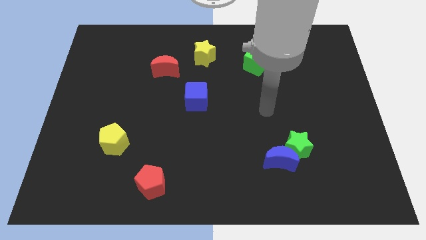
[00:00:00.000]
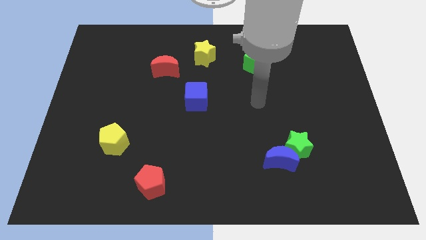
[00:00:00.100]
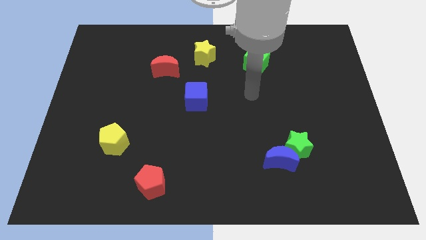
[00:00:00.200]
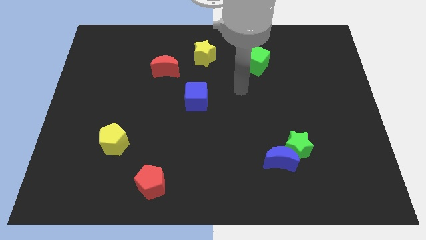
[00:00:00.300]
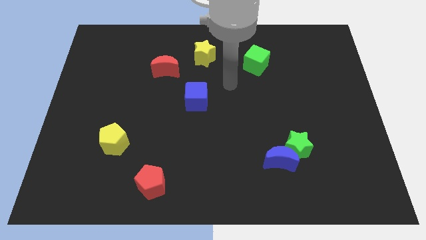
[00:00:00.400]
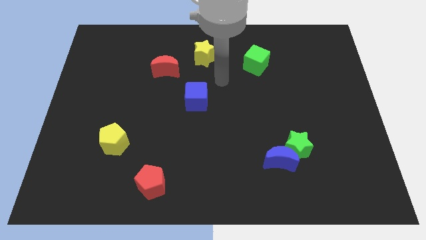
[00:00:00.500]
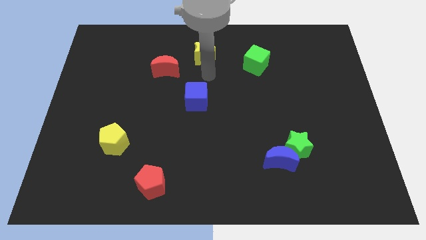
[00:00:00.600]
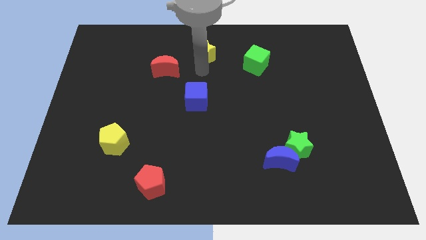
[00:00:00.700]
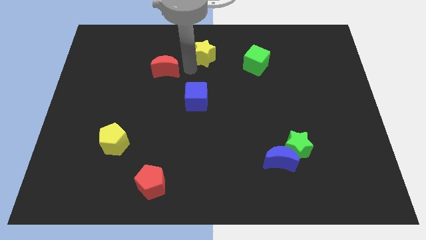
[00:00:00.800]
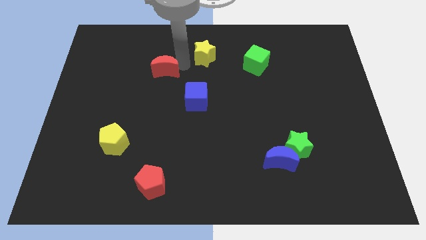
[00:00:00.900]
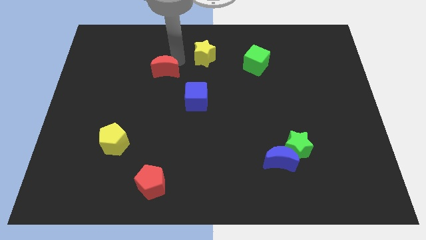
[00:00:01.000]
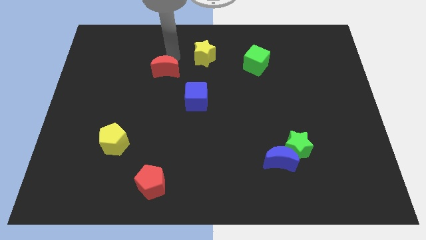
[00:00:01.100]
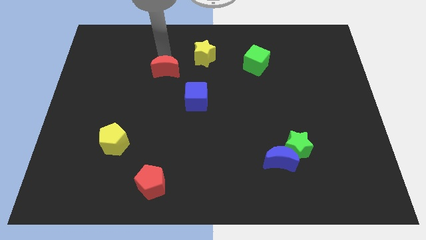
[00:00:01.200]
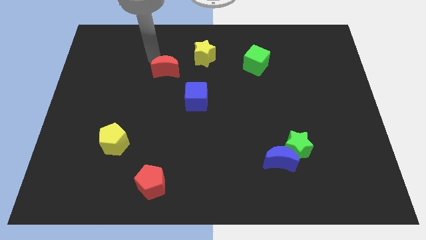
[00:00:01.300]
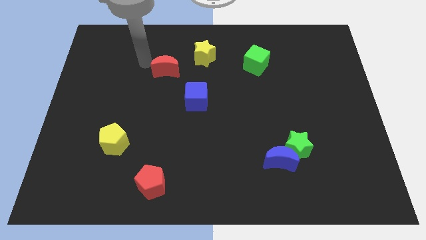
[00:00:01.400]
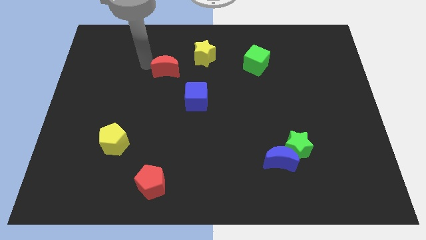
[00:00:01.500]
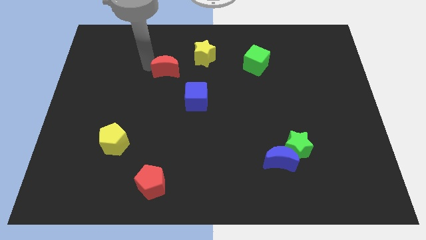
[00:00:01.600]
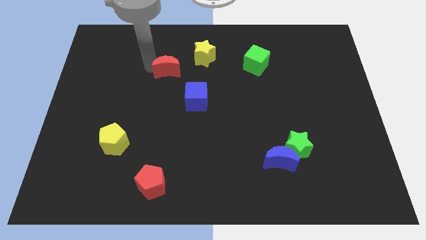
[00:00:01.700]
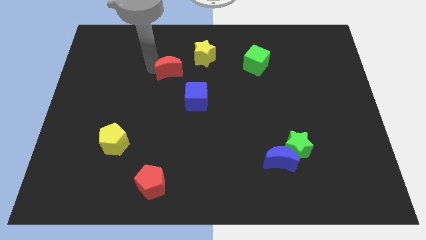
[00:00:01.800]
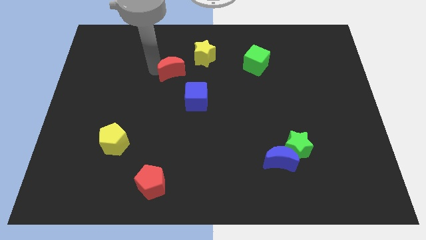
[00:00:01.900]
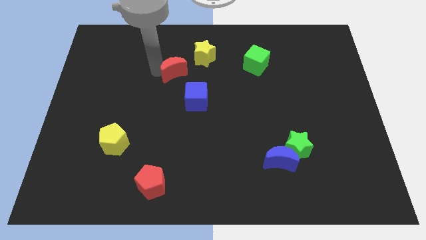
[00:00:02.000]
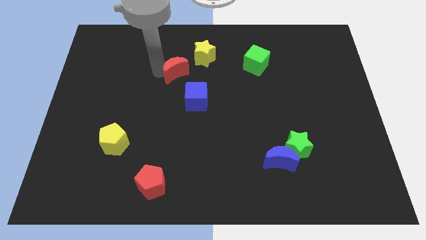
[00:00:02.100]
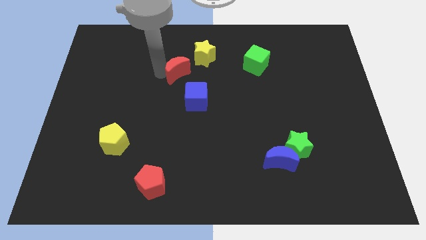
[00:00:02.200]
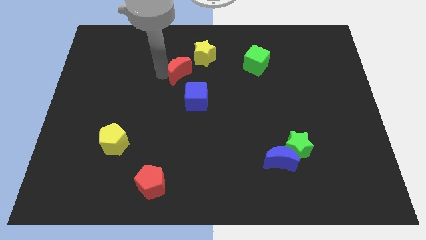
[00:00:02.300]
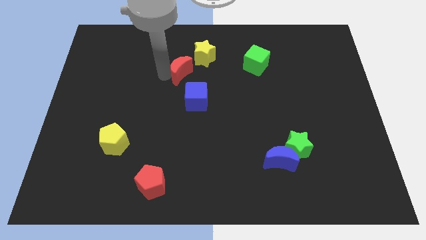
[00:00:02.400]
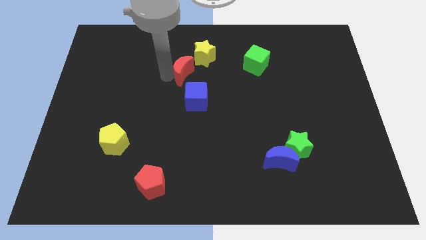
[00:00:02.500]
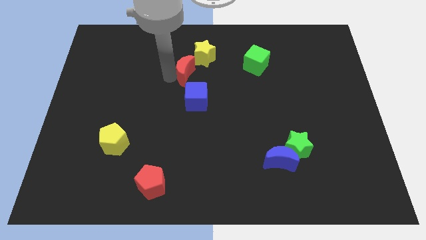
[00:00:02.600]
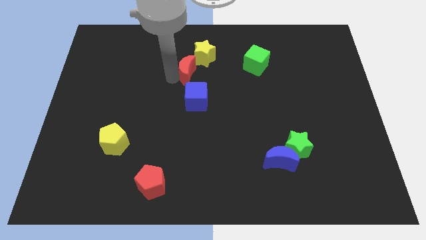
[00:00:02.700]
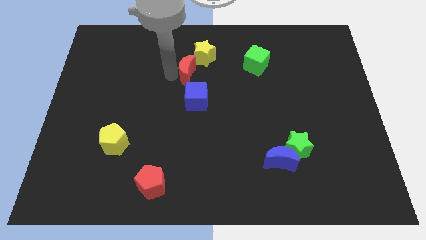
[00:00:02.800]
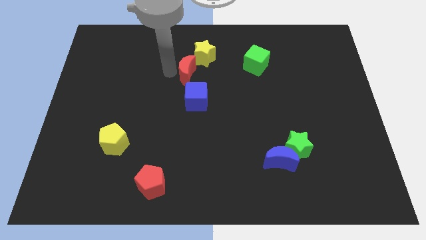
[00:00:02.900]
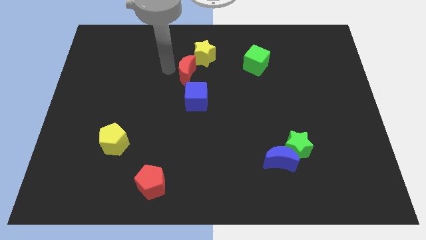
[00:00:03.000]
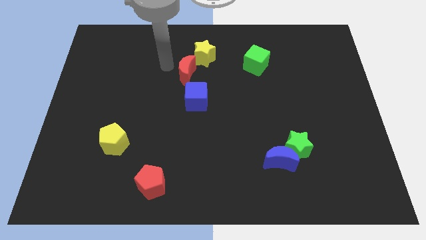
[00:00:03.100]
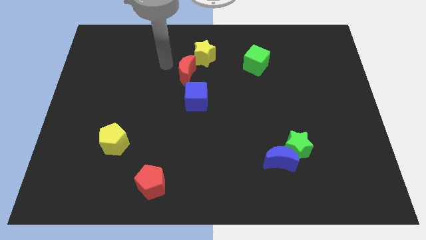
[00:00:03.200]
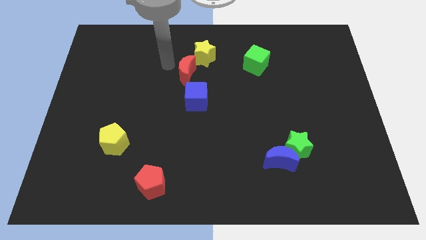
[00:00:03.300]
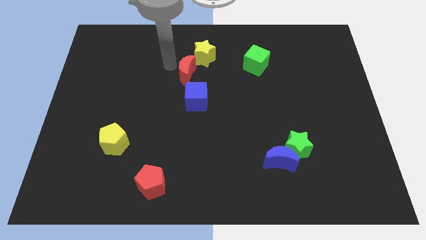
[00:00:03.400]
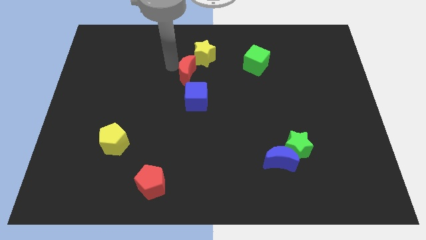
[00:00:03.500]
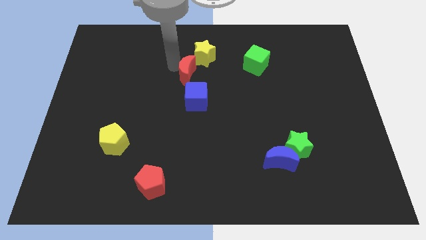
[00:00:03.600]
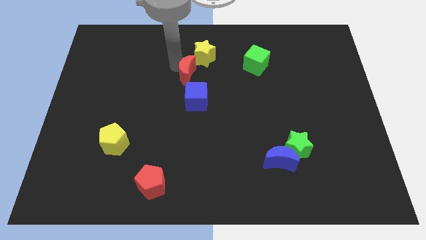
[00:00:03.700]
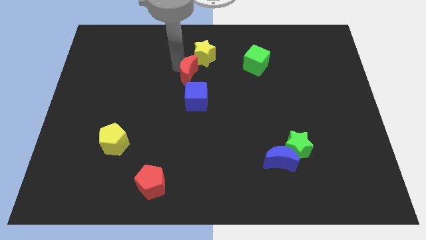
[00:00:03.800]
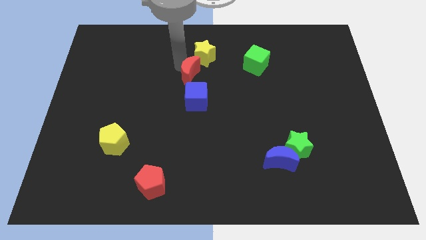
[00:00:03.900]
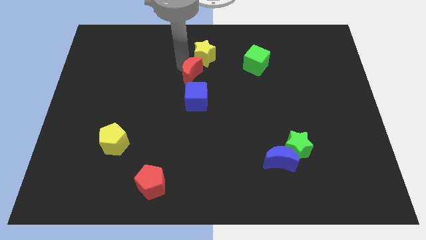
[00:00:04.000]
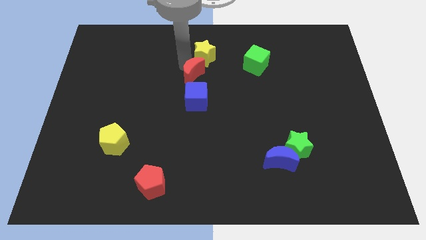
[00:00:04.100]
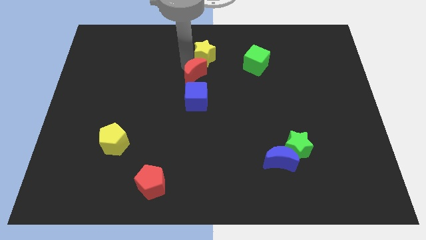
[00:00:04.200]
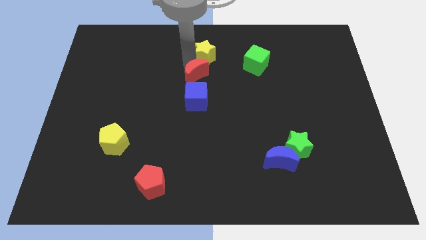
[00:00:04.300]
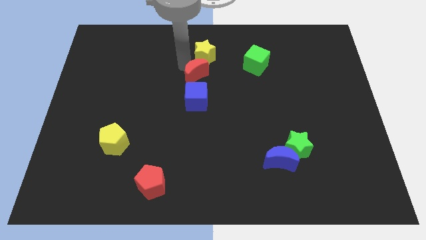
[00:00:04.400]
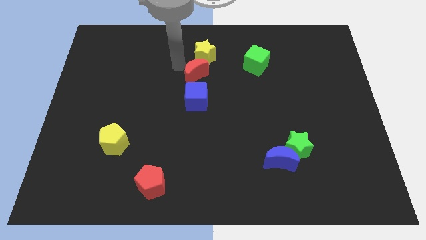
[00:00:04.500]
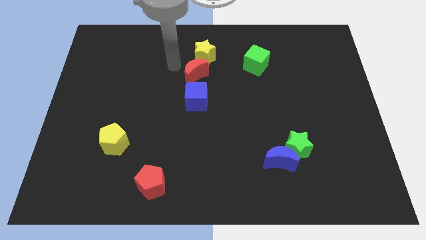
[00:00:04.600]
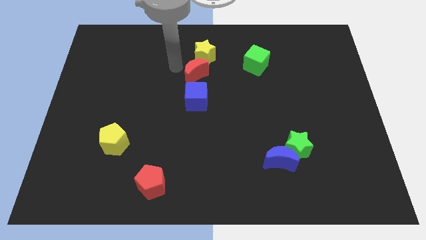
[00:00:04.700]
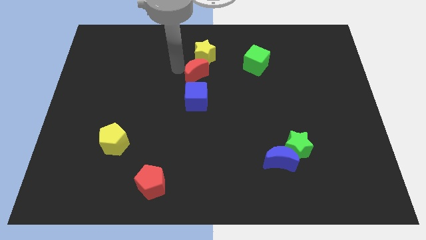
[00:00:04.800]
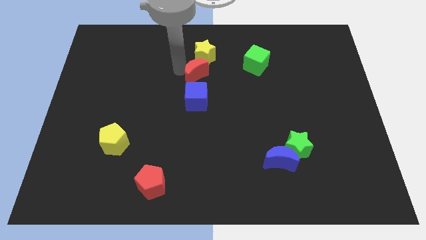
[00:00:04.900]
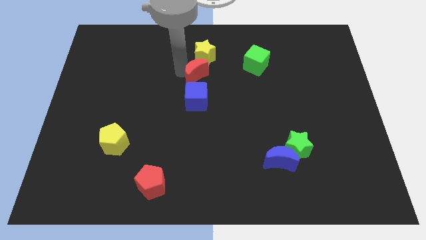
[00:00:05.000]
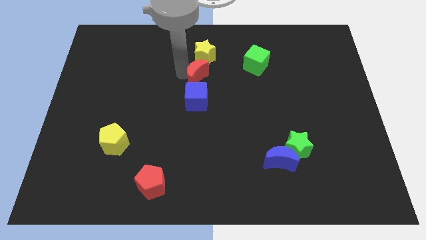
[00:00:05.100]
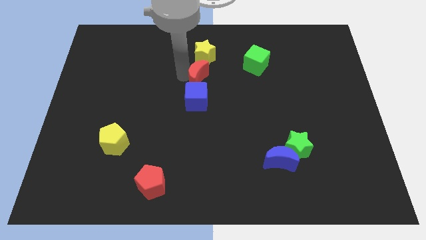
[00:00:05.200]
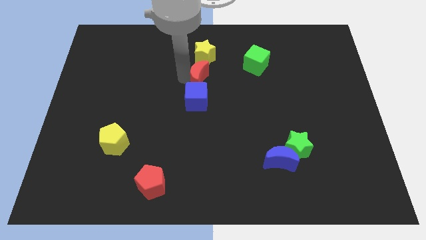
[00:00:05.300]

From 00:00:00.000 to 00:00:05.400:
move the red moon to the top right of the blue cube

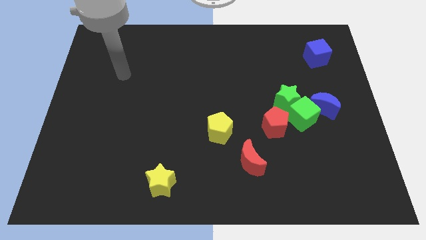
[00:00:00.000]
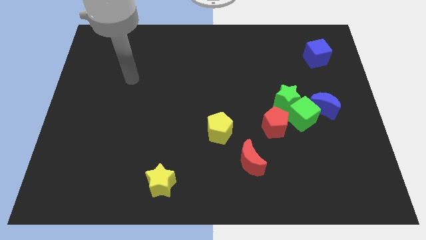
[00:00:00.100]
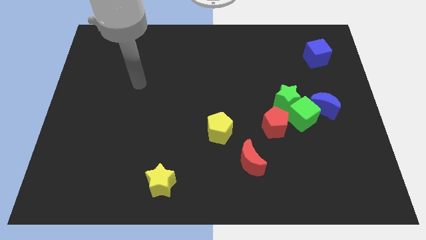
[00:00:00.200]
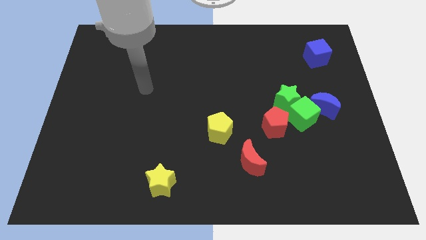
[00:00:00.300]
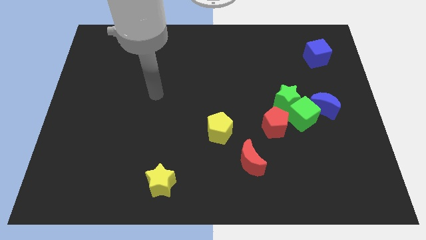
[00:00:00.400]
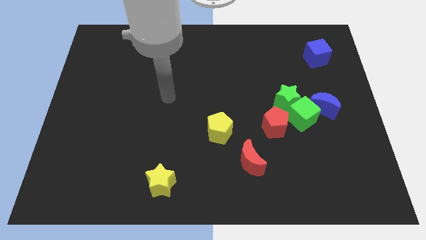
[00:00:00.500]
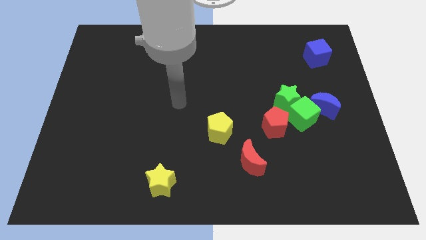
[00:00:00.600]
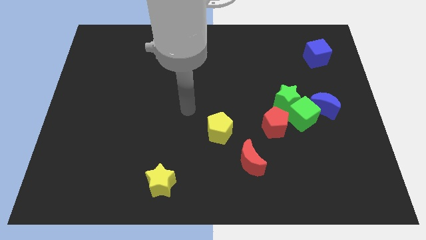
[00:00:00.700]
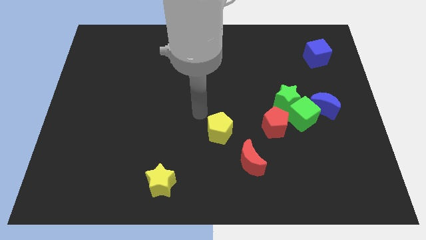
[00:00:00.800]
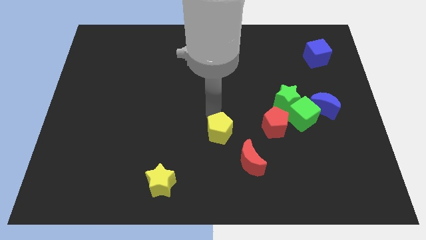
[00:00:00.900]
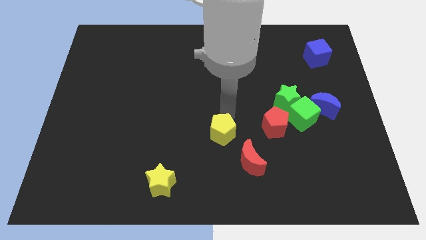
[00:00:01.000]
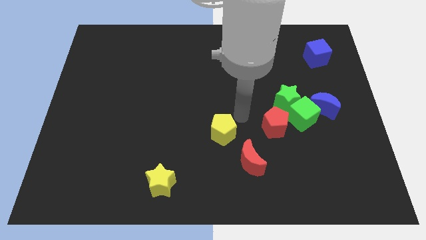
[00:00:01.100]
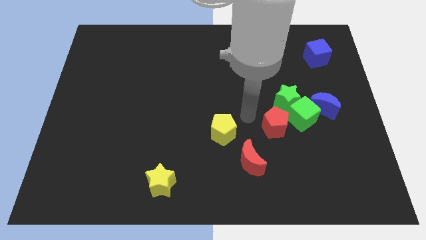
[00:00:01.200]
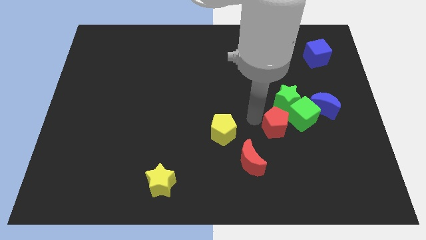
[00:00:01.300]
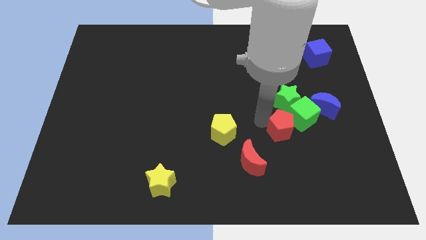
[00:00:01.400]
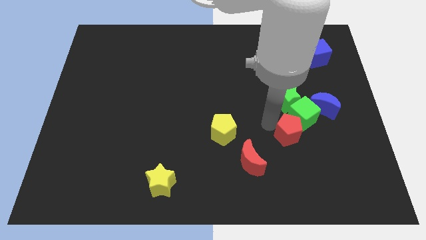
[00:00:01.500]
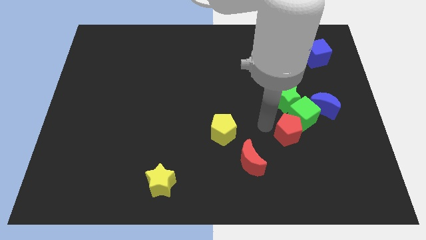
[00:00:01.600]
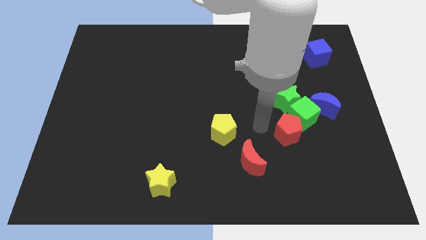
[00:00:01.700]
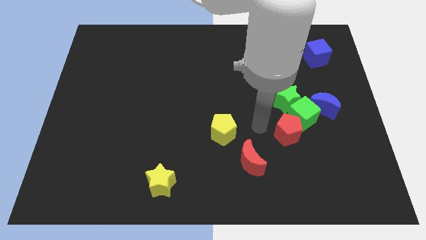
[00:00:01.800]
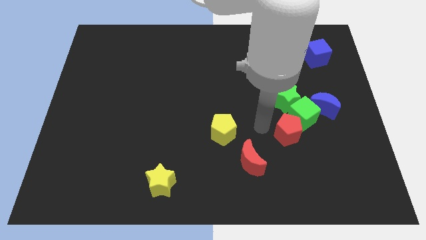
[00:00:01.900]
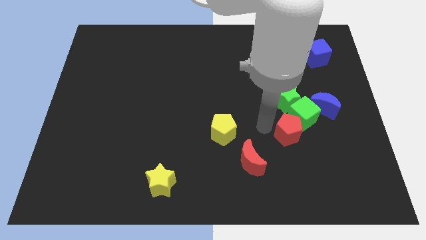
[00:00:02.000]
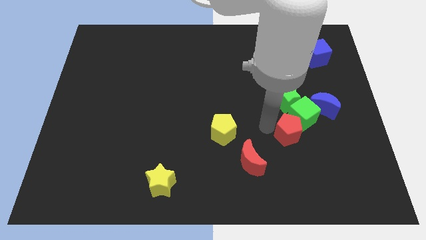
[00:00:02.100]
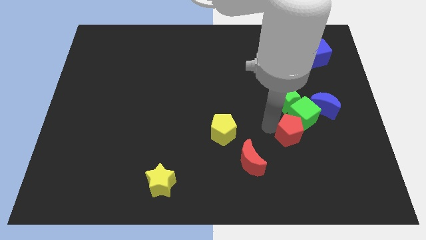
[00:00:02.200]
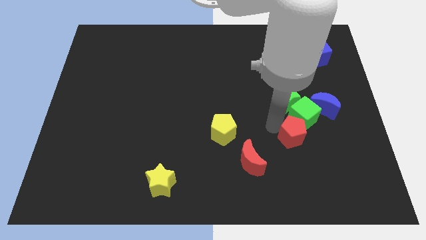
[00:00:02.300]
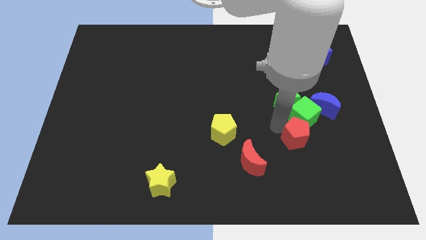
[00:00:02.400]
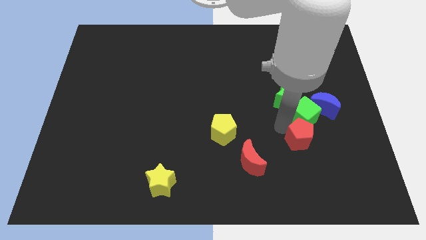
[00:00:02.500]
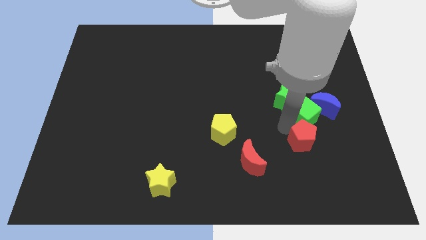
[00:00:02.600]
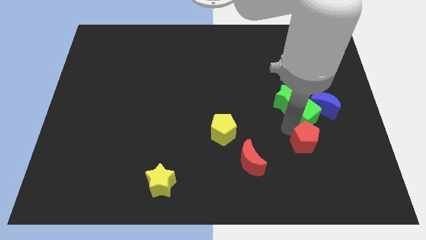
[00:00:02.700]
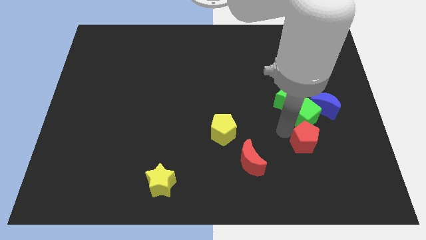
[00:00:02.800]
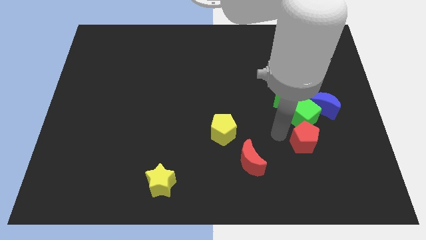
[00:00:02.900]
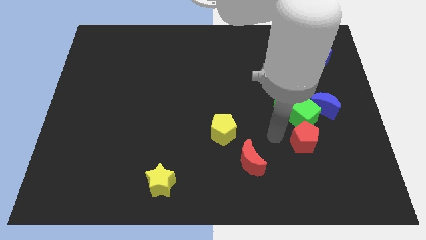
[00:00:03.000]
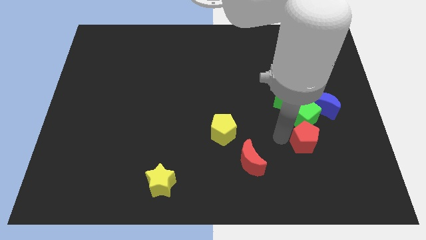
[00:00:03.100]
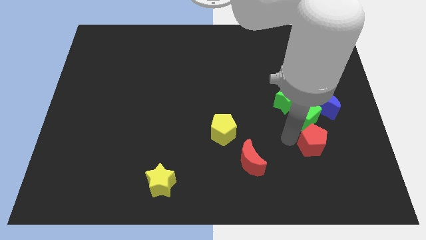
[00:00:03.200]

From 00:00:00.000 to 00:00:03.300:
put the red pentagon to the bottom side of the blue moon
